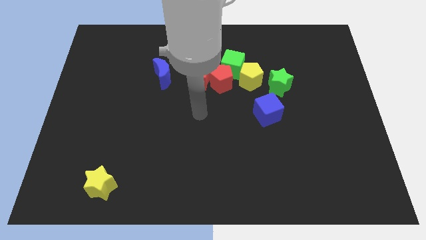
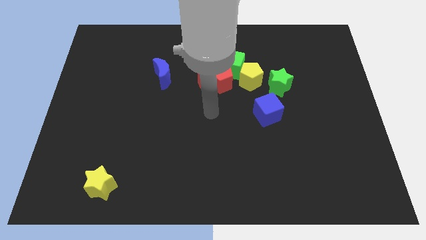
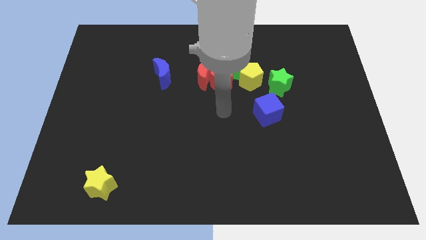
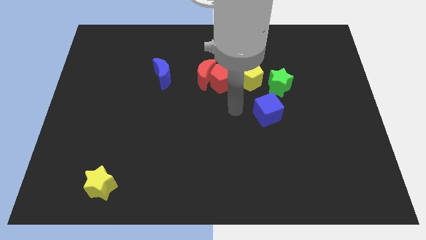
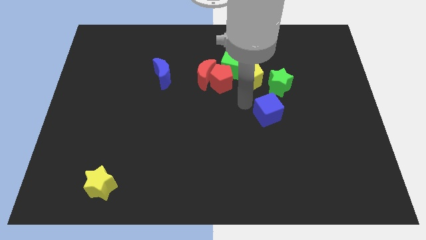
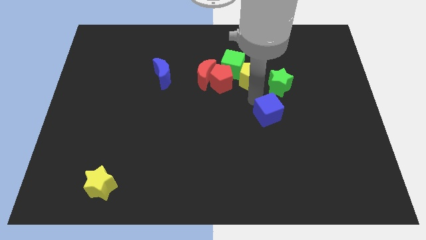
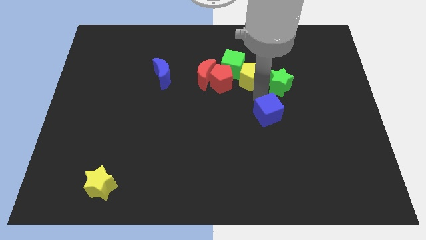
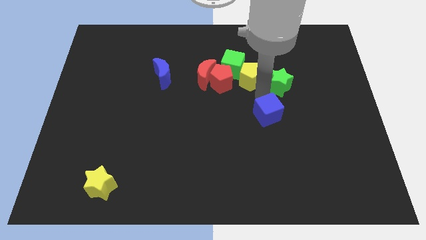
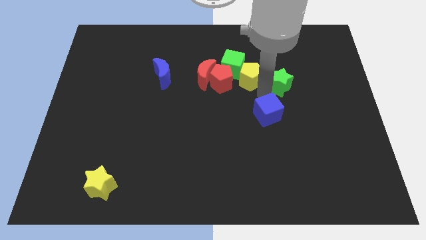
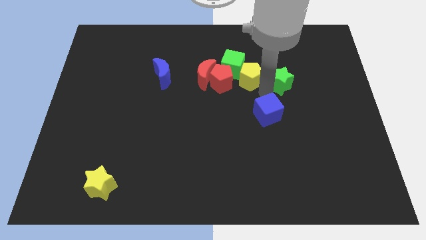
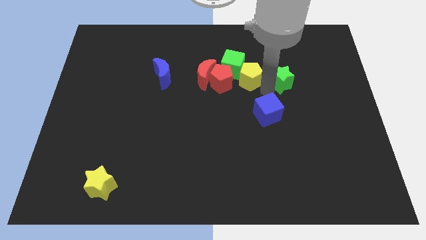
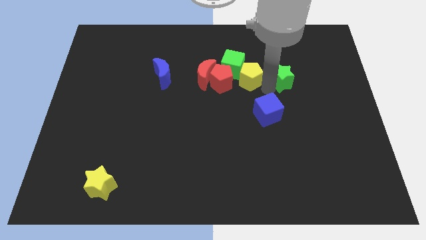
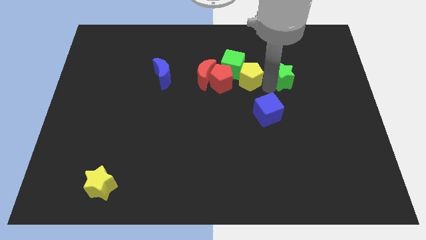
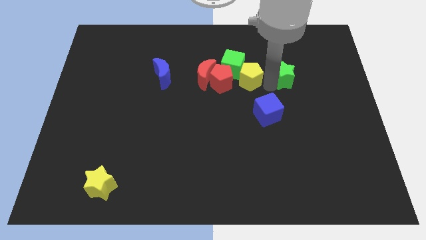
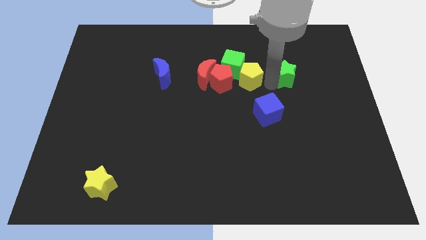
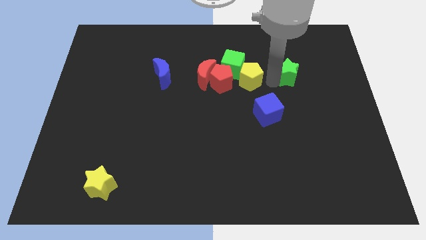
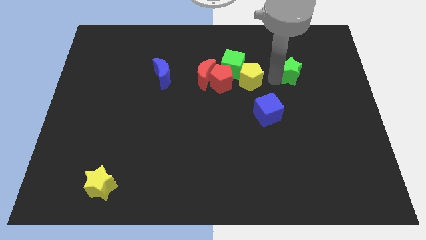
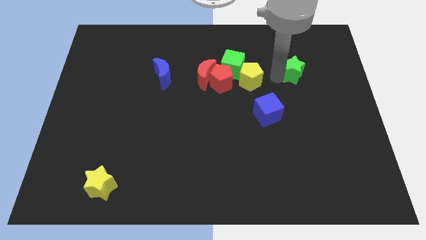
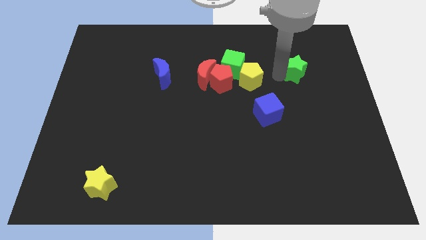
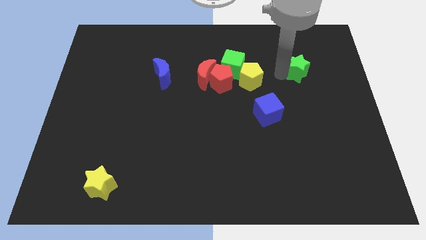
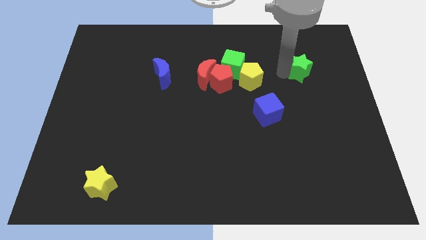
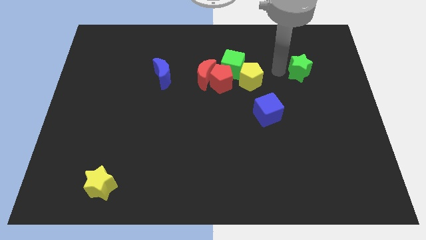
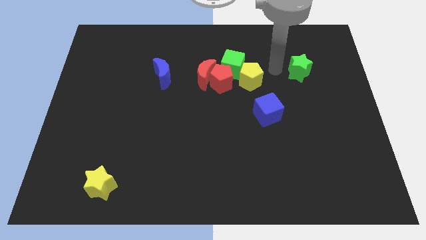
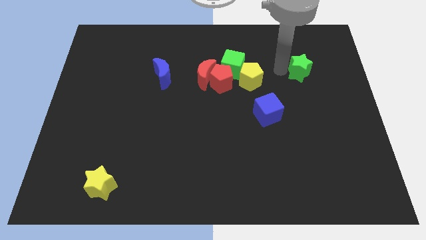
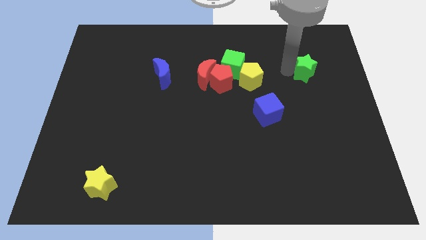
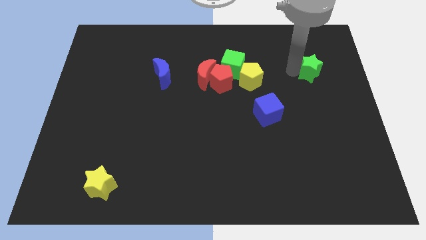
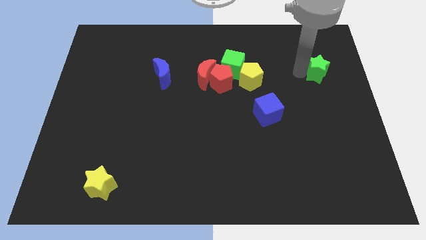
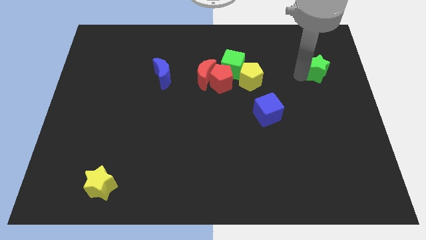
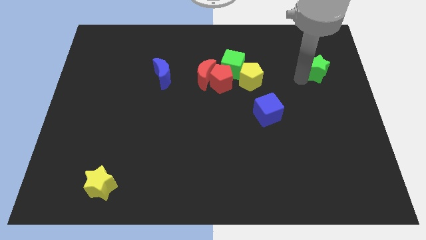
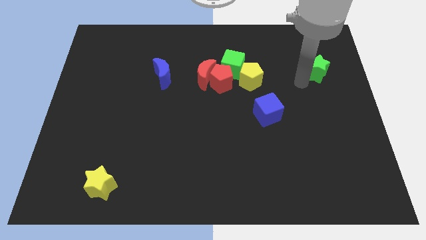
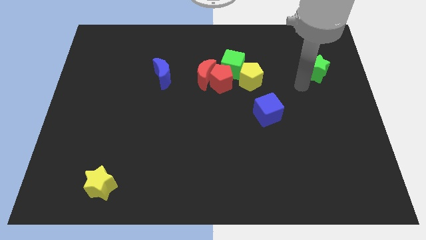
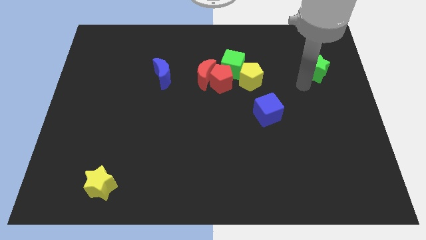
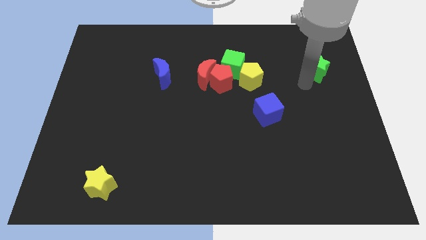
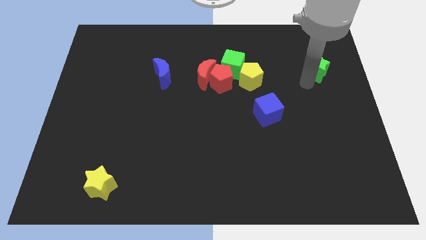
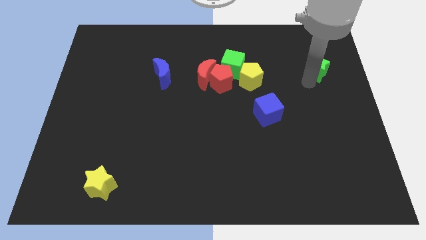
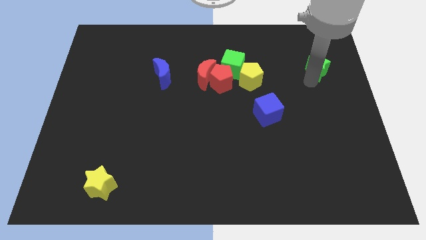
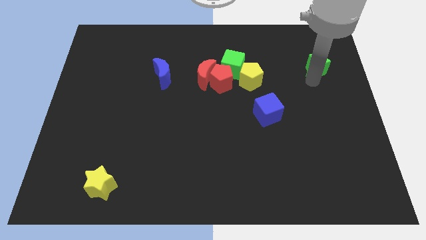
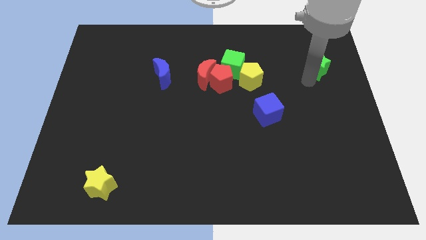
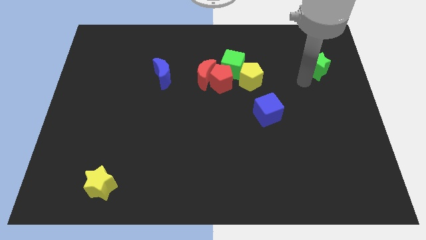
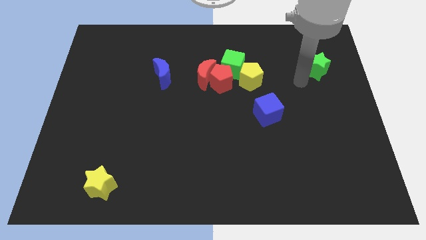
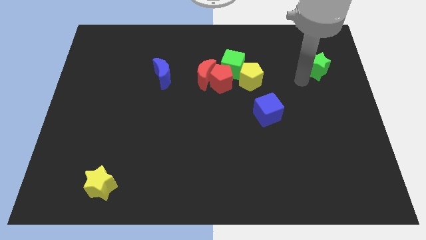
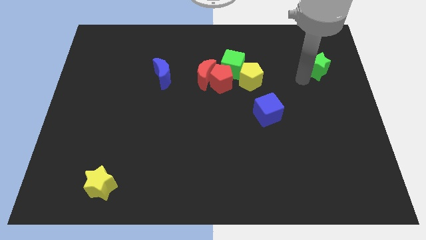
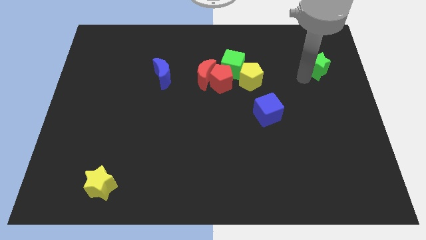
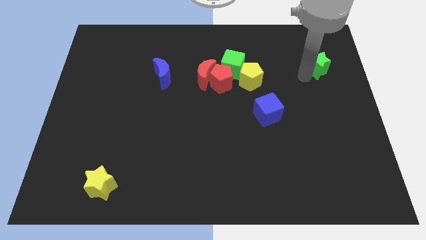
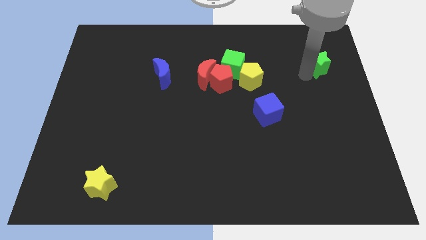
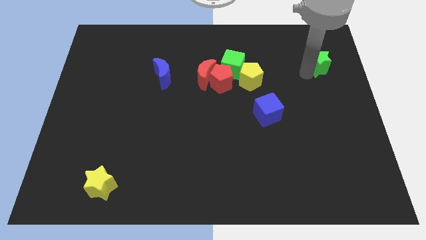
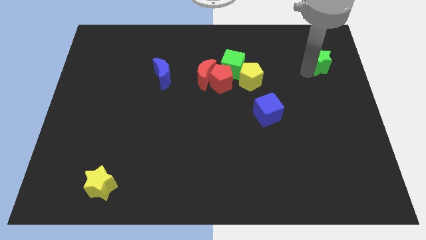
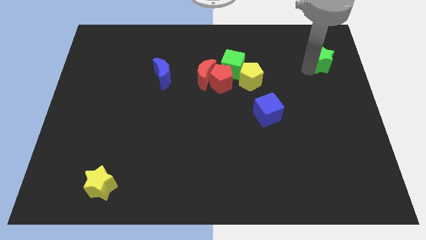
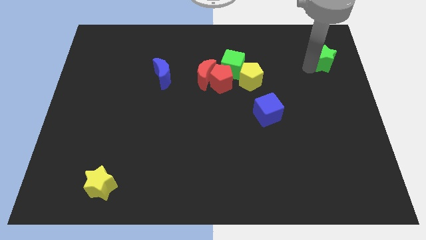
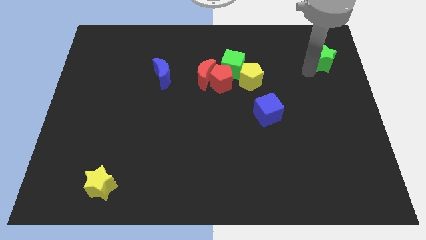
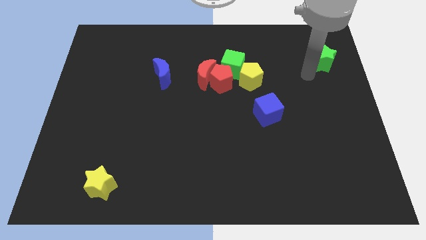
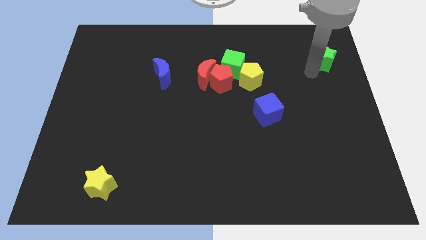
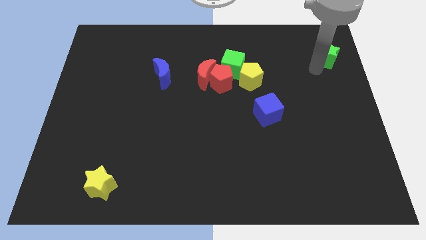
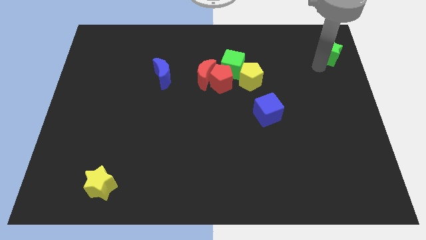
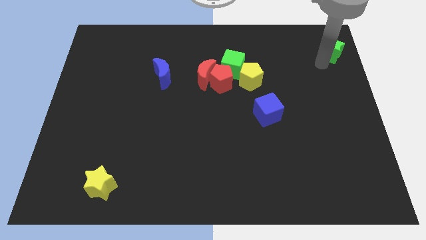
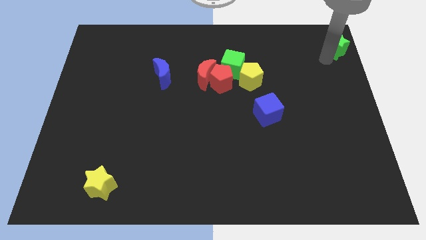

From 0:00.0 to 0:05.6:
move the green star to the top right
